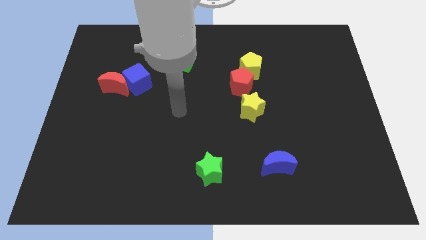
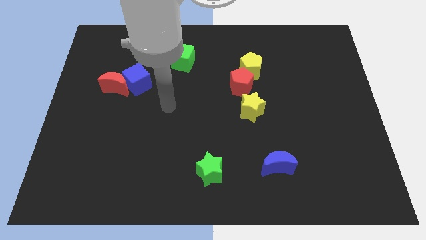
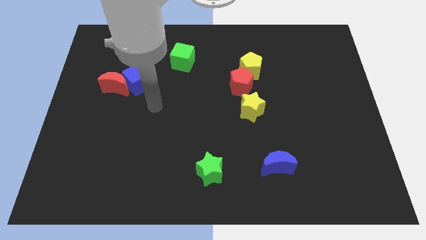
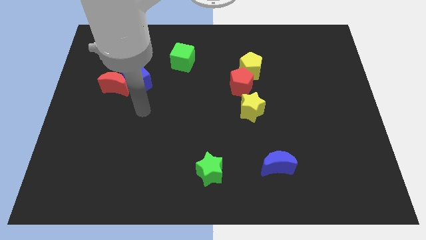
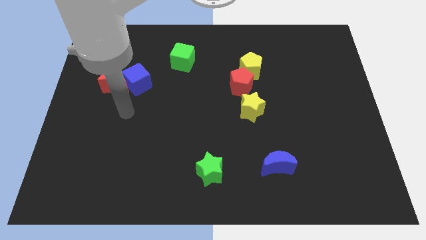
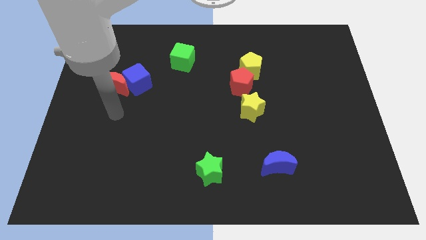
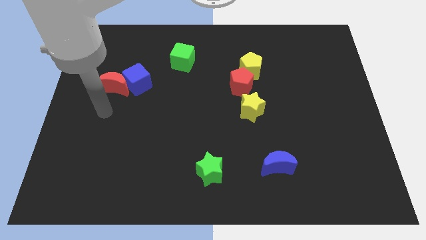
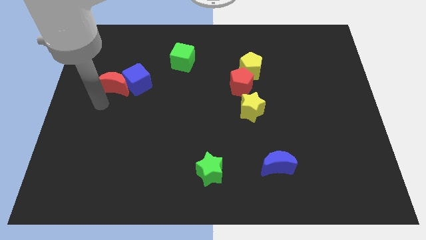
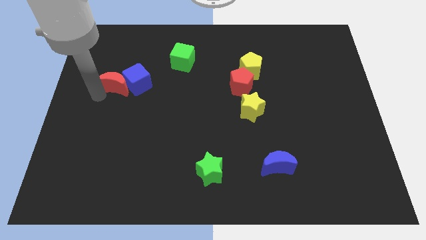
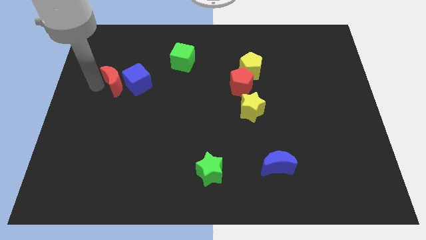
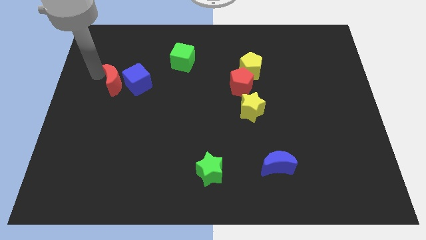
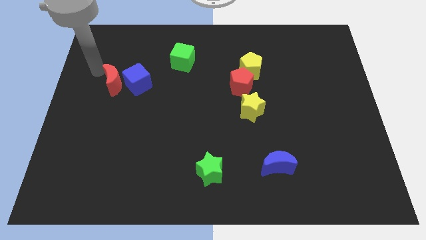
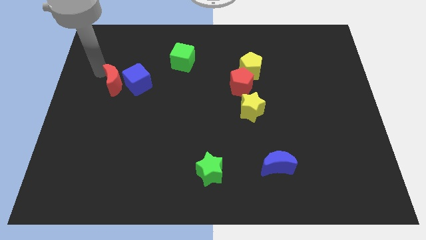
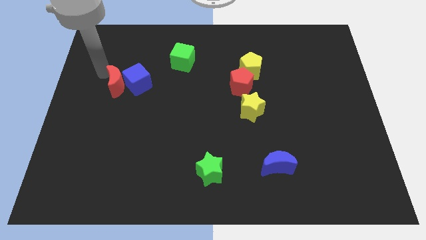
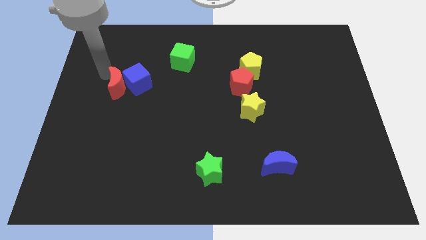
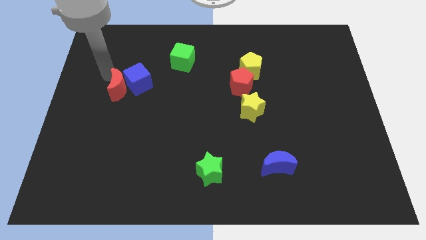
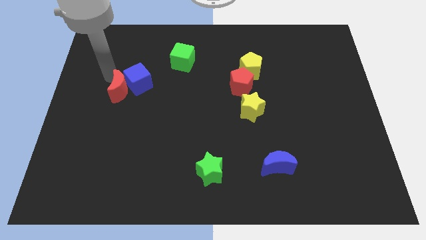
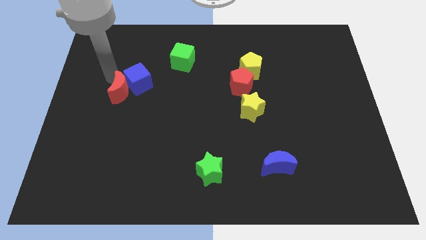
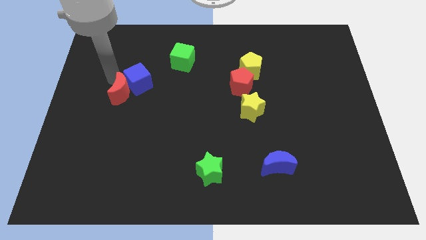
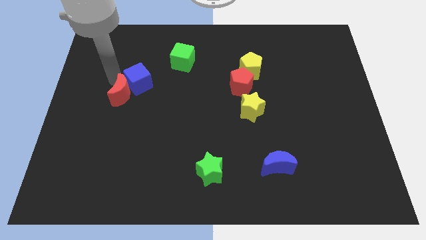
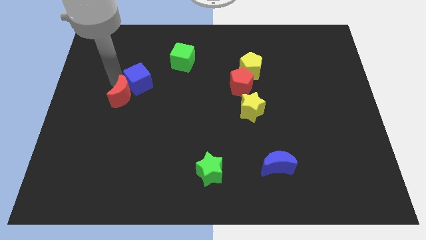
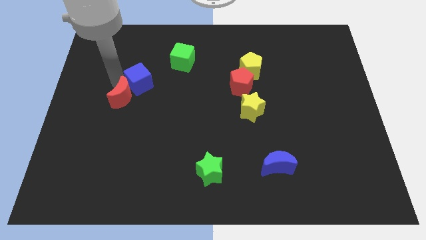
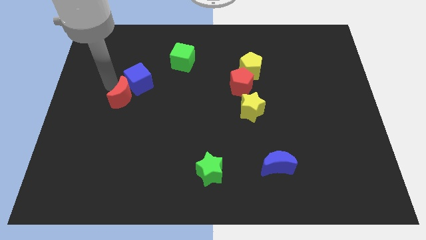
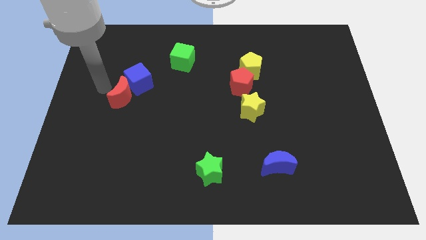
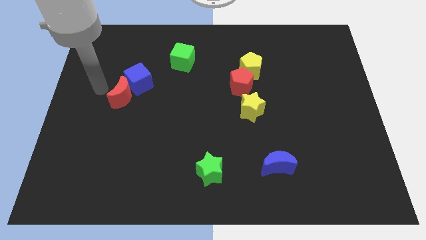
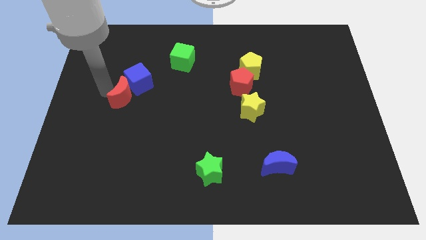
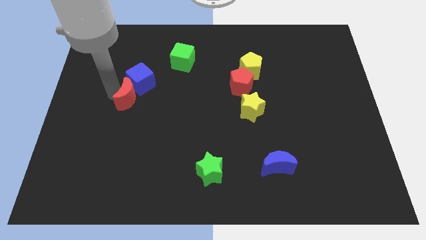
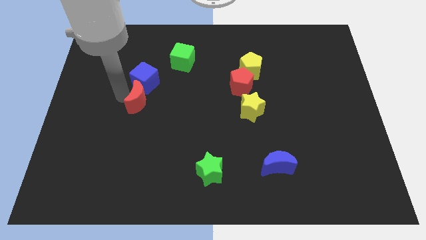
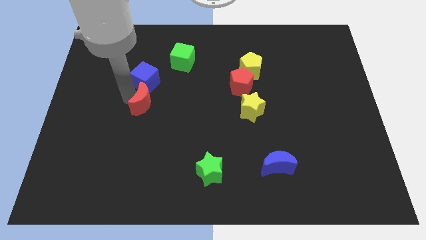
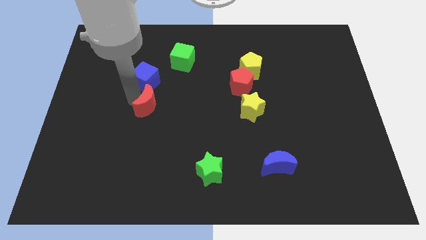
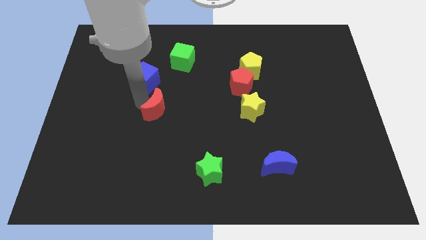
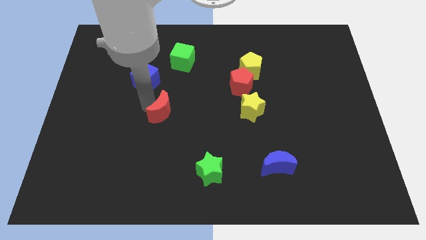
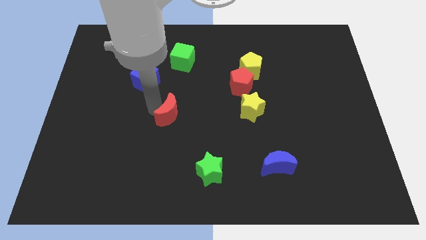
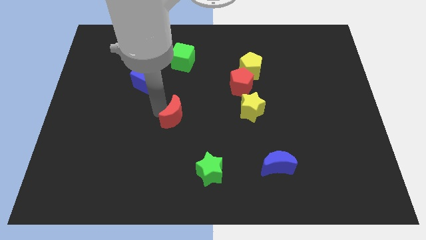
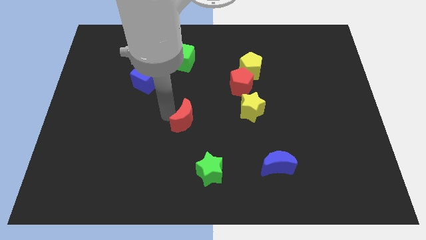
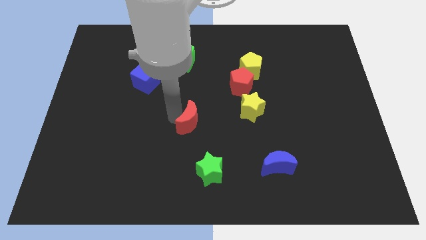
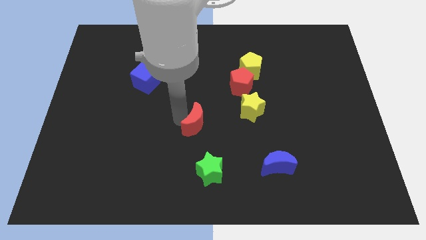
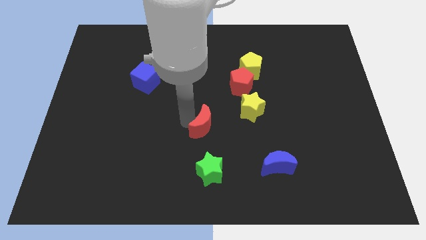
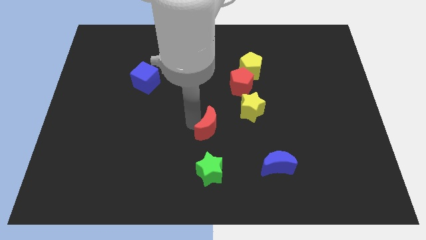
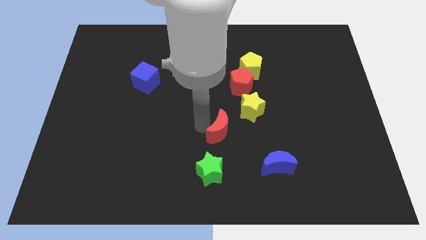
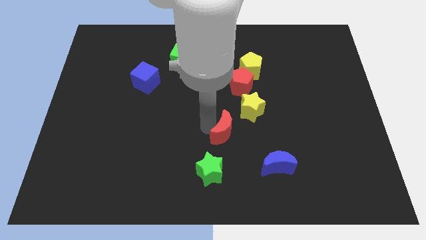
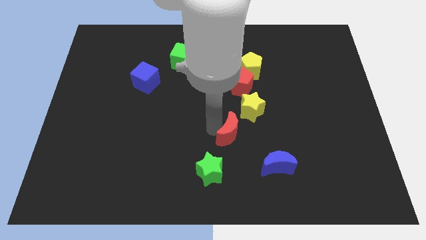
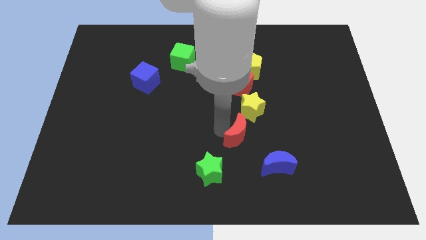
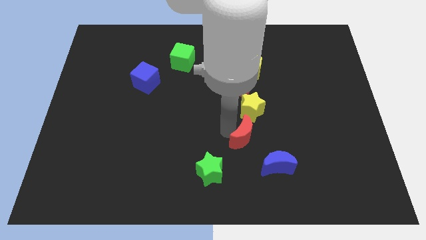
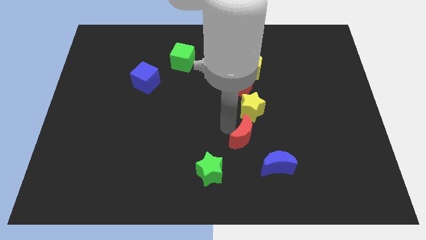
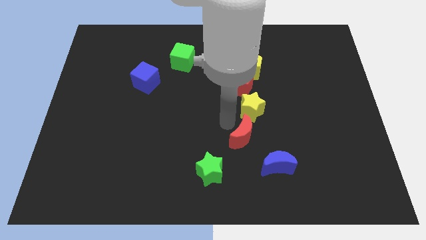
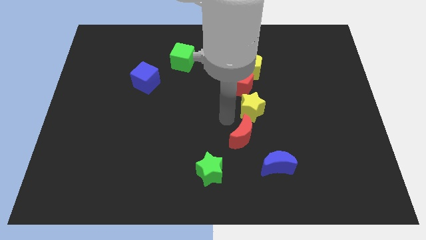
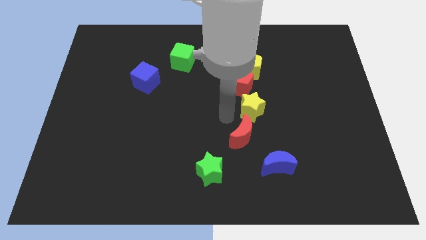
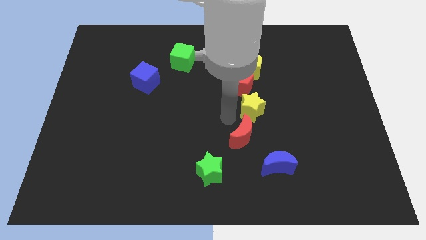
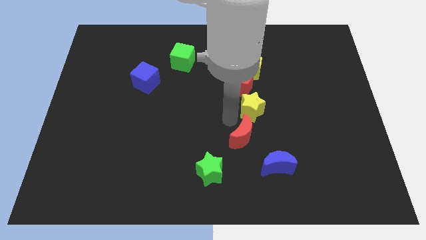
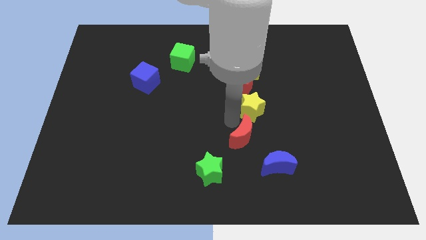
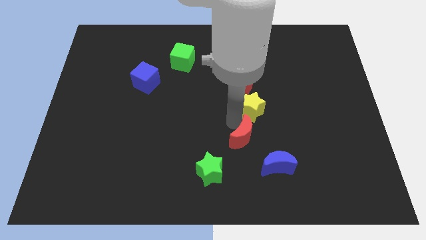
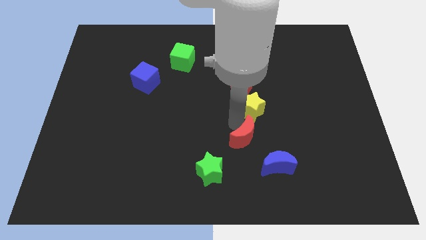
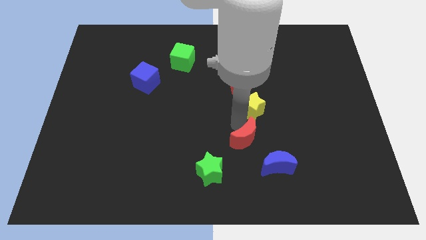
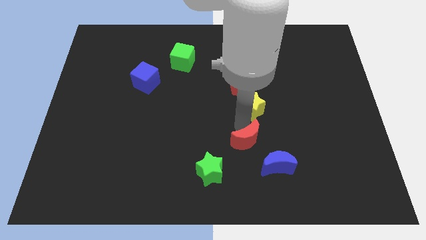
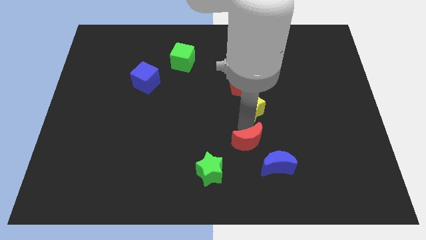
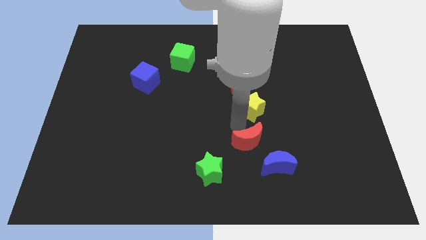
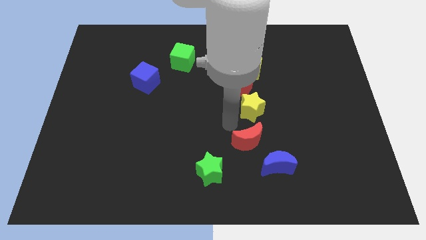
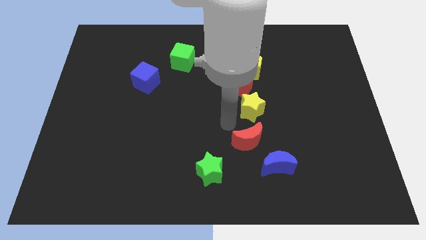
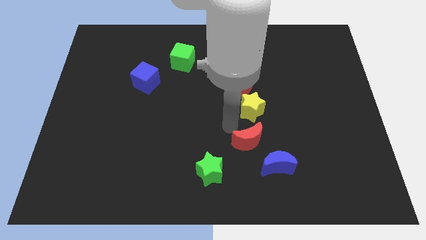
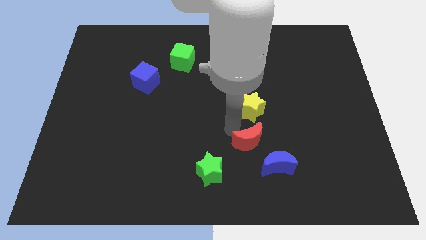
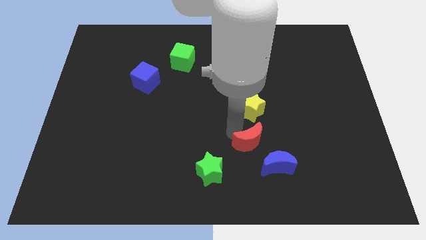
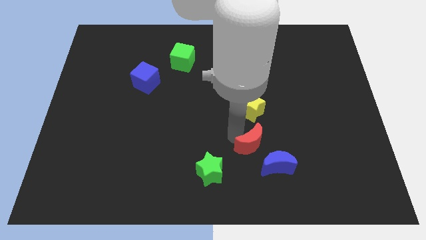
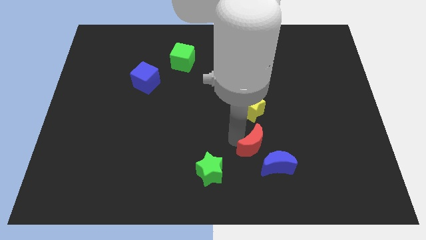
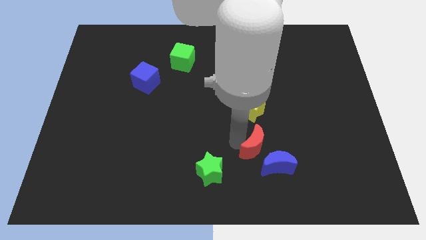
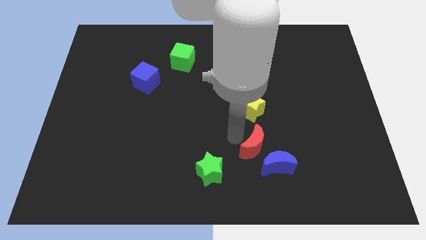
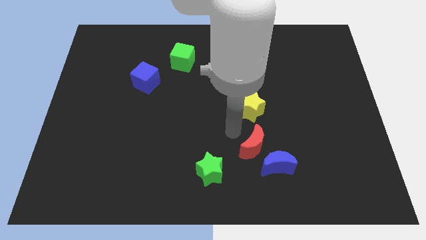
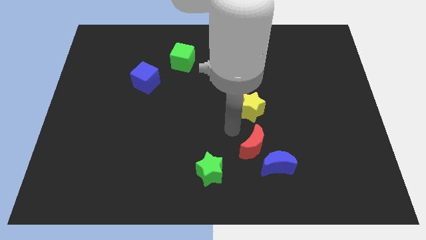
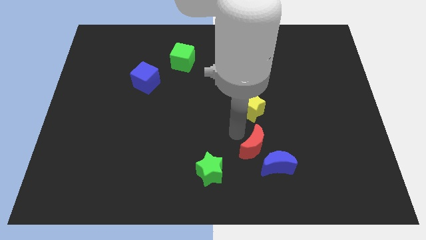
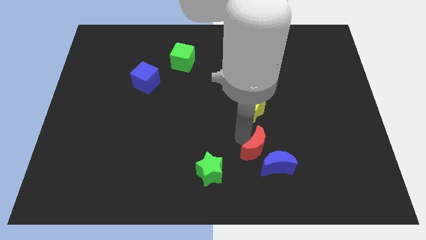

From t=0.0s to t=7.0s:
put the red moon next to the blue moon

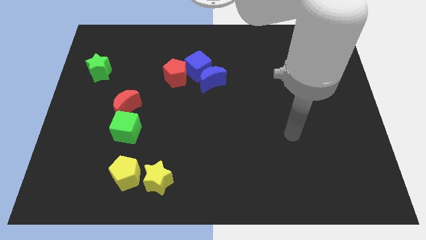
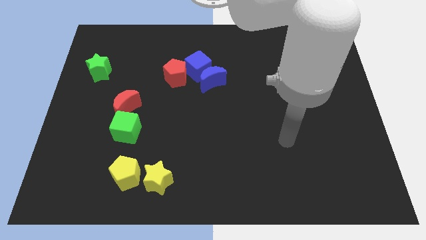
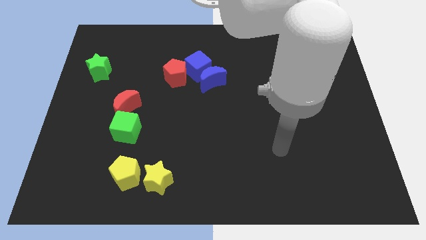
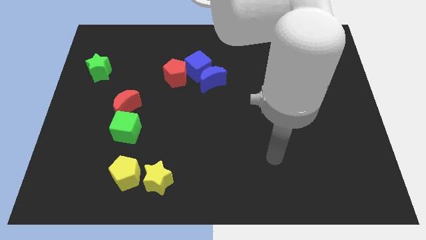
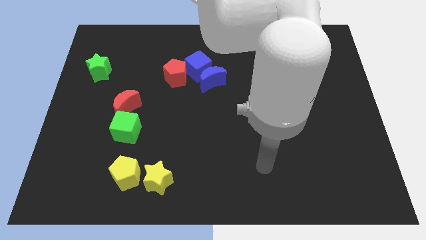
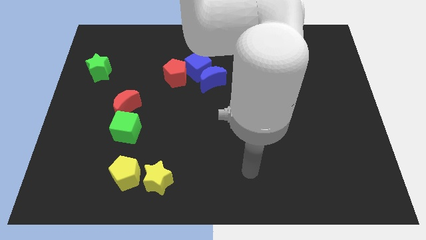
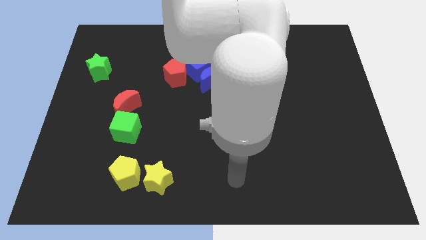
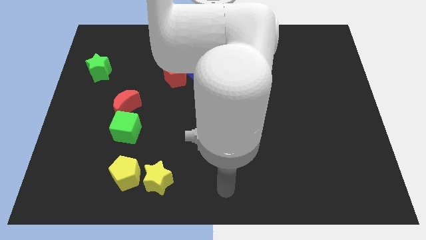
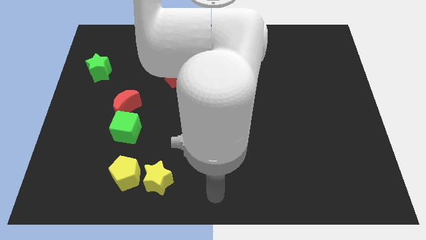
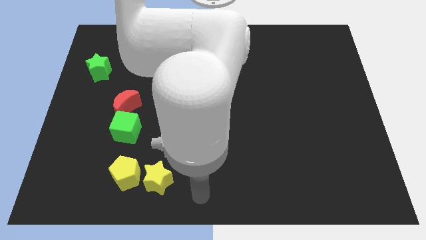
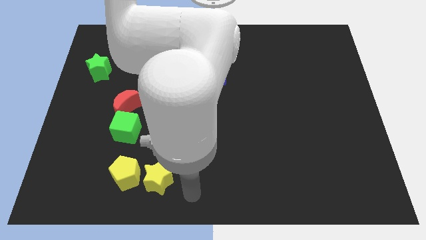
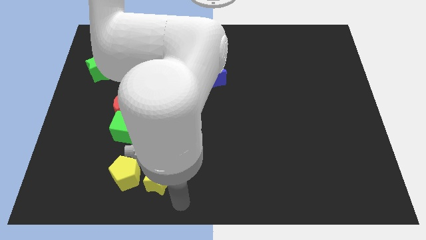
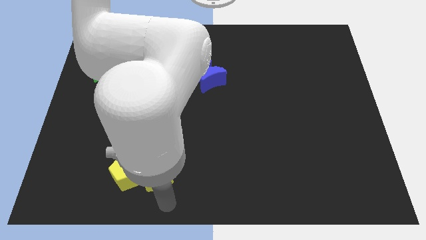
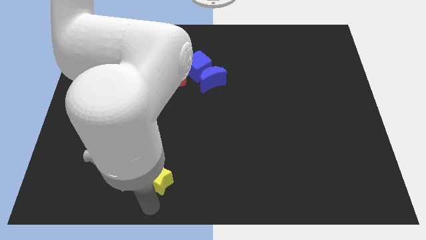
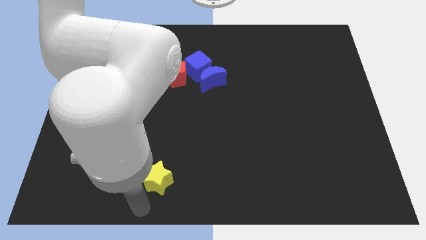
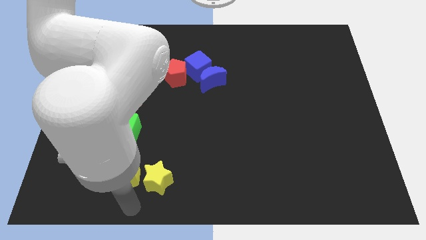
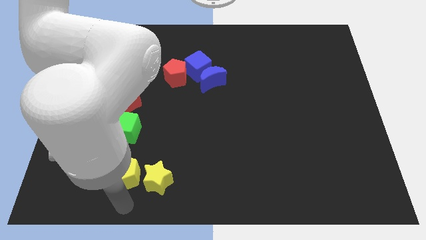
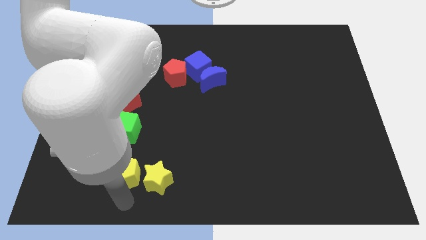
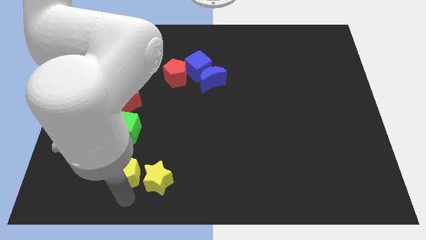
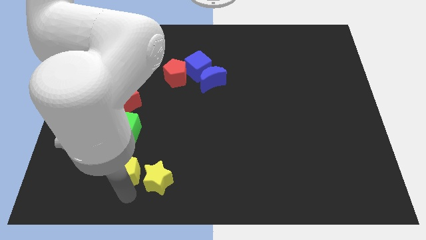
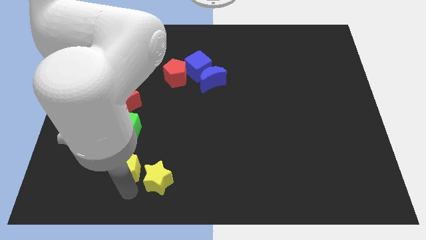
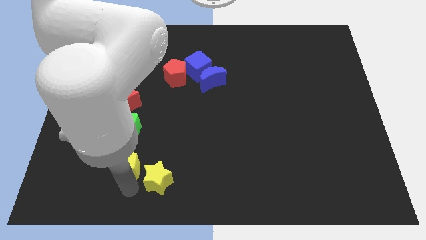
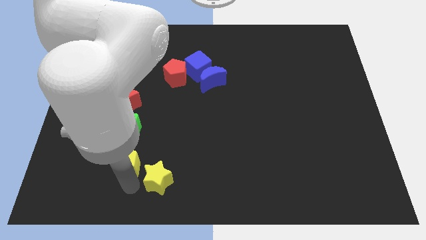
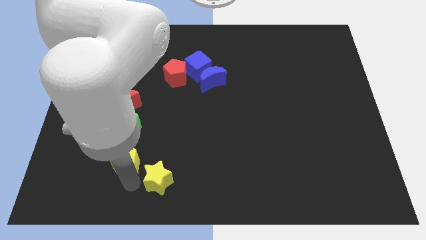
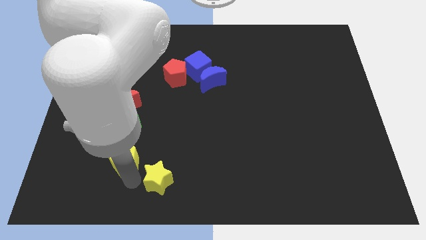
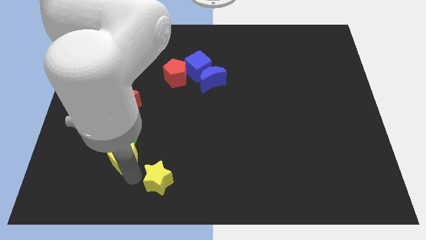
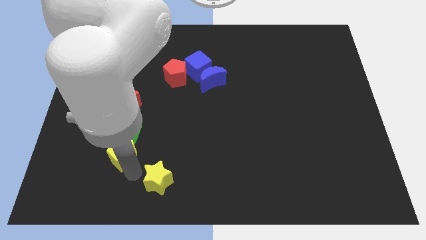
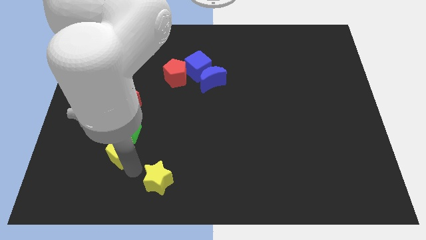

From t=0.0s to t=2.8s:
move the yellow pentagon towards the green cube
